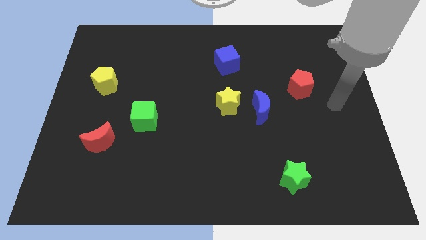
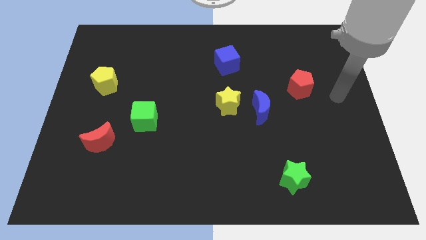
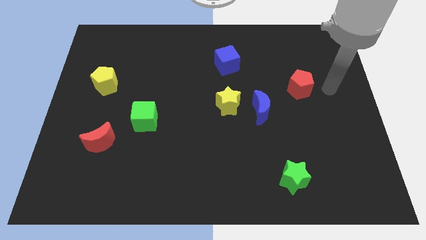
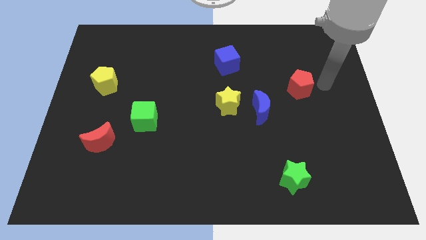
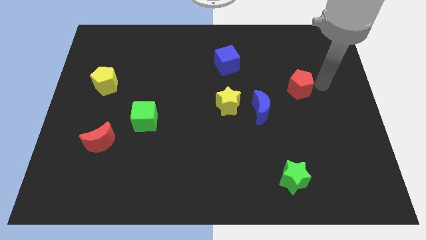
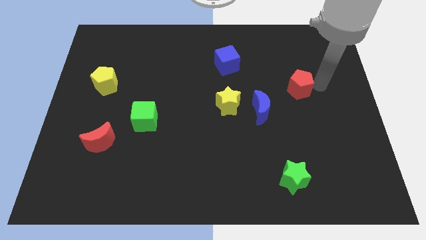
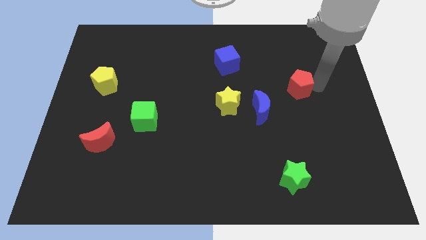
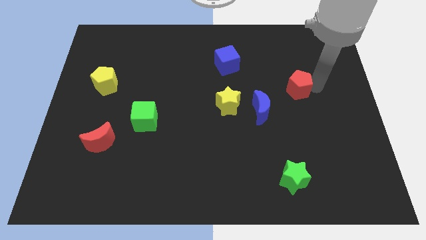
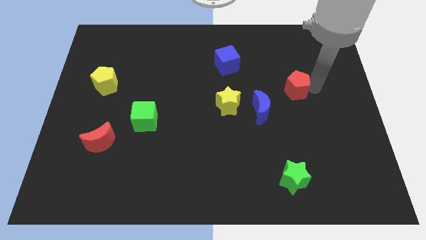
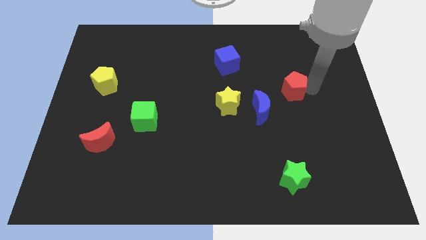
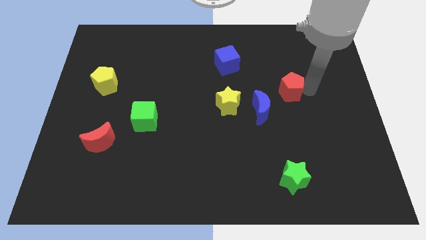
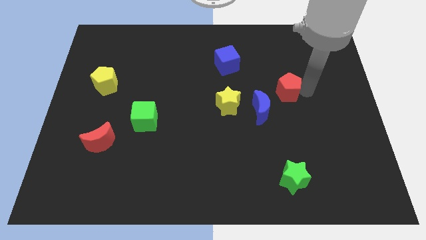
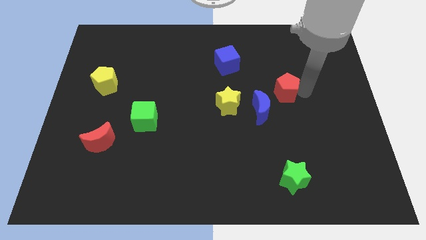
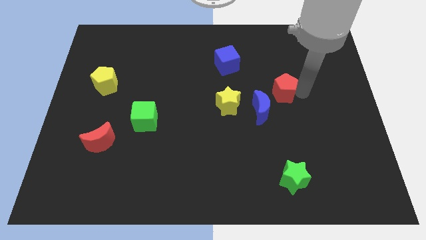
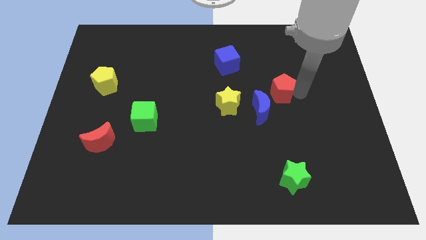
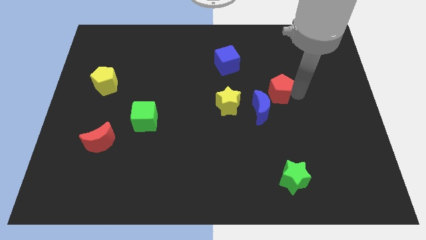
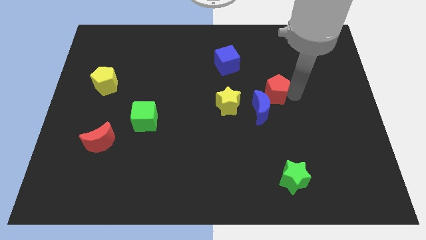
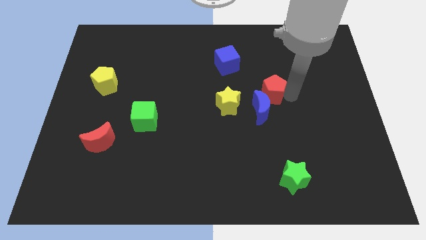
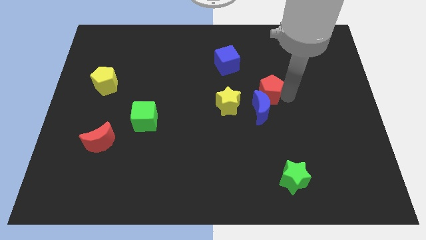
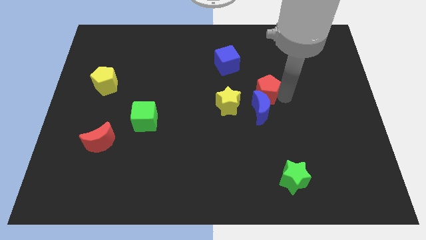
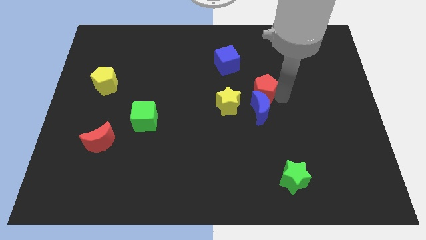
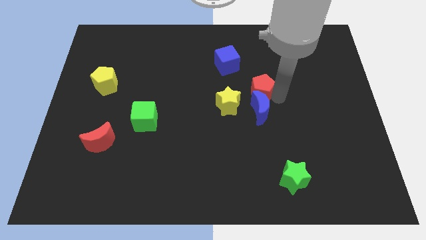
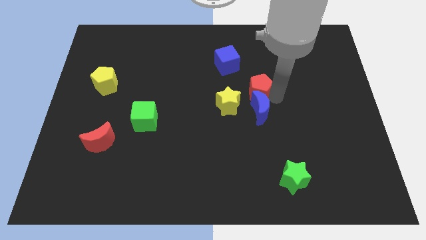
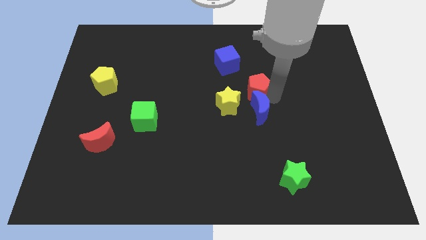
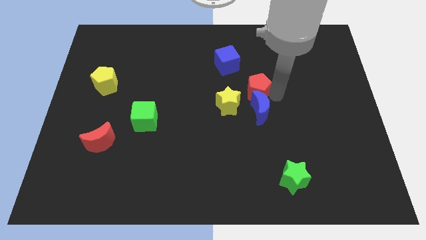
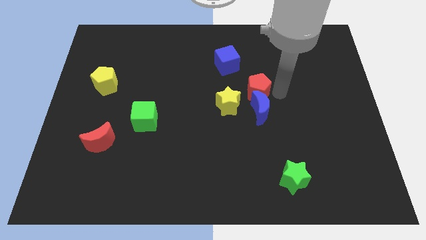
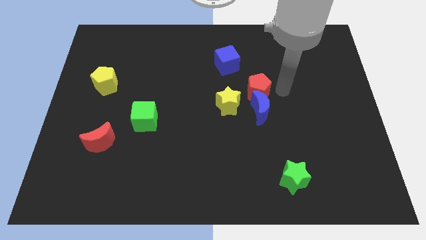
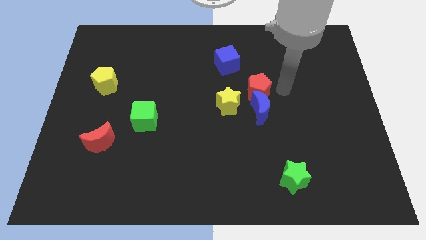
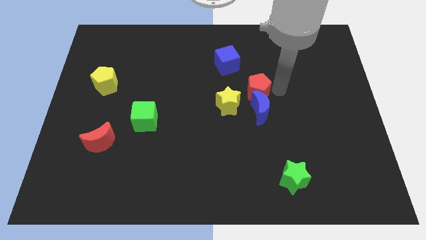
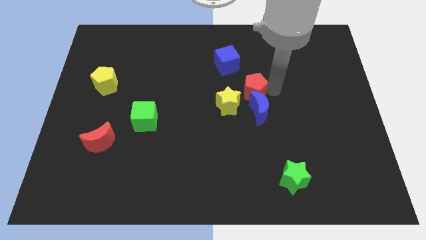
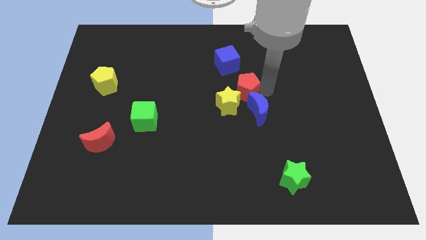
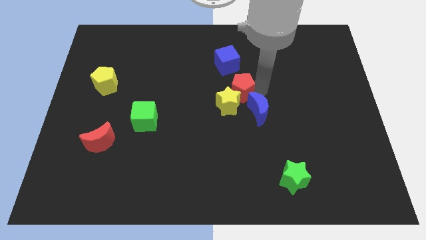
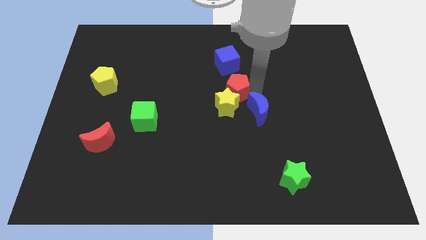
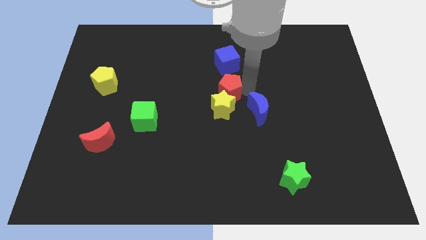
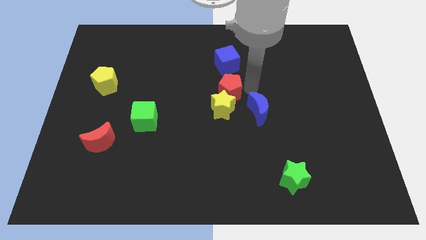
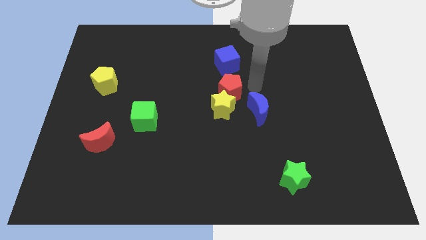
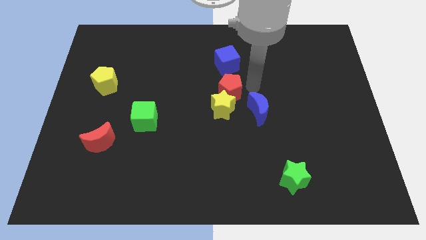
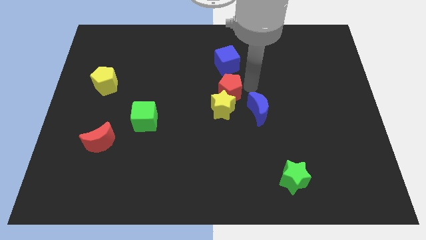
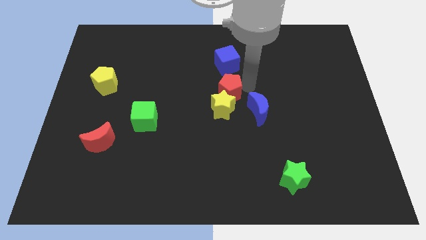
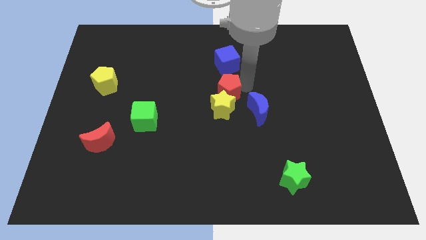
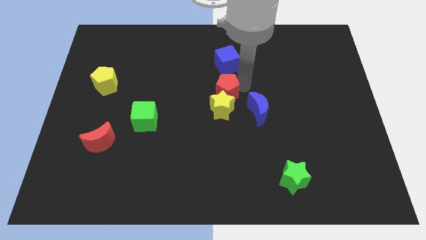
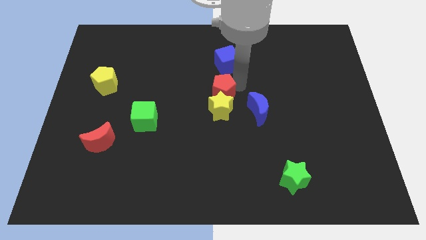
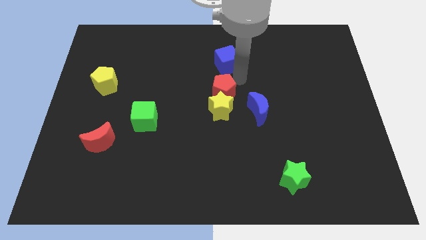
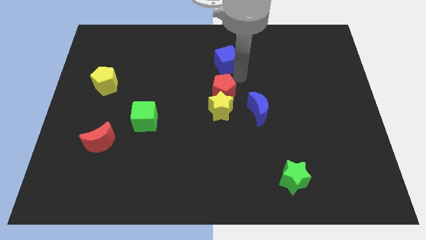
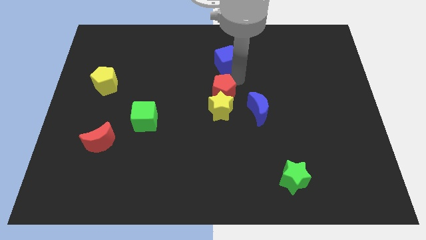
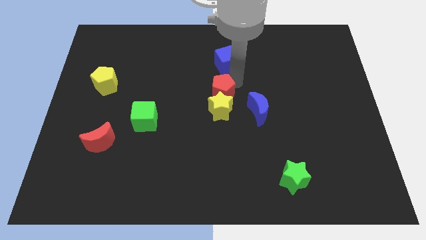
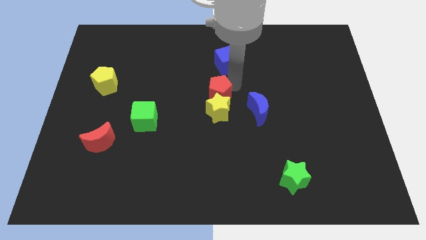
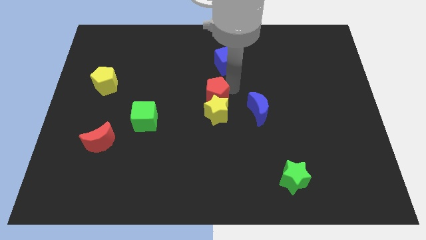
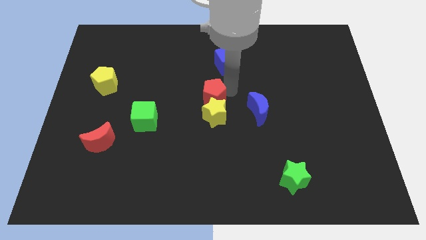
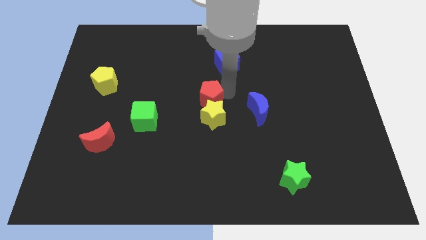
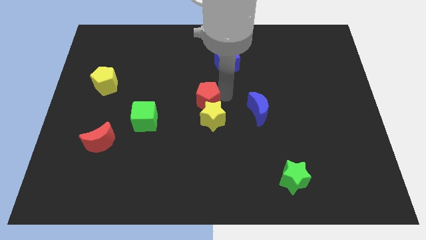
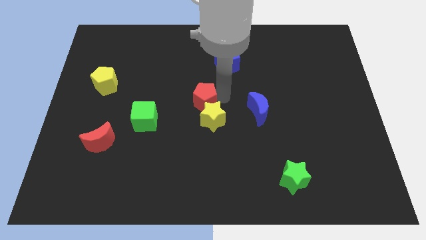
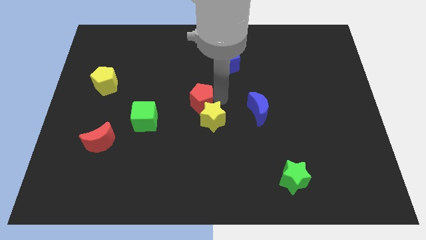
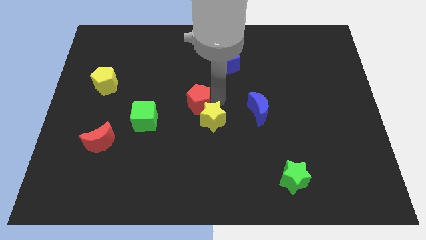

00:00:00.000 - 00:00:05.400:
slide the red pentagon right of the green cube

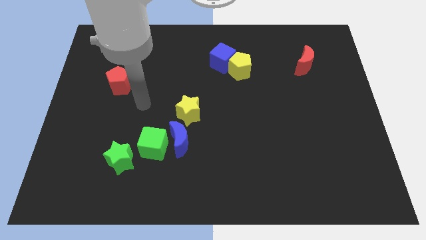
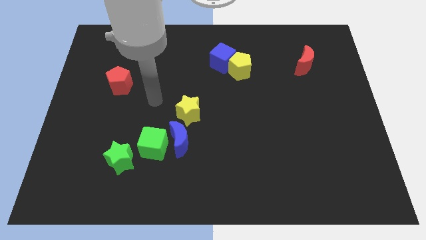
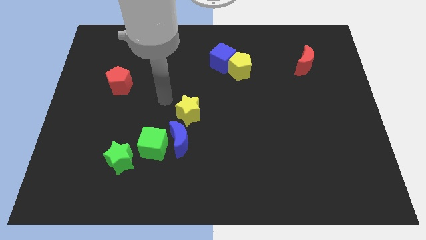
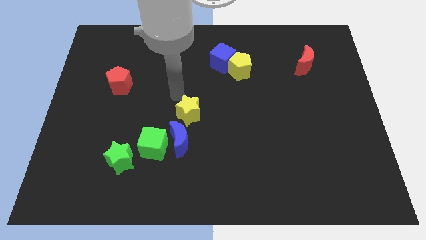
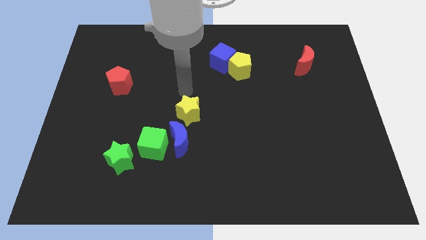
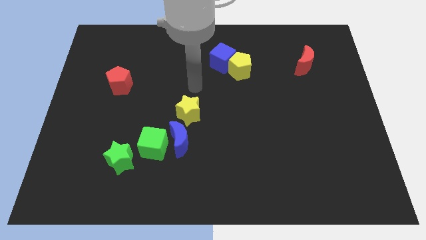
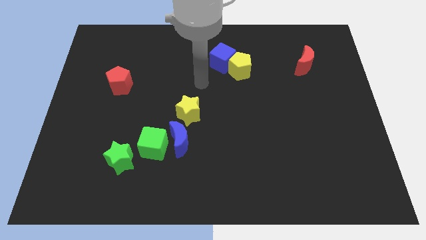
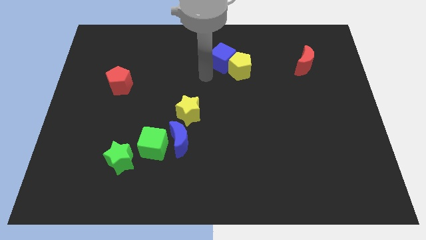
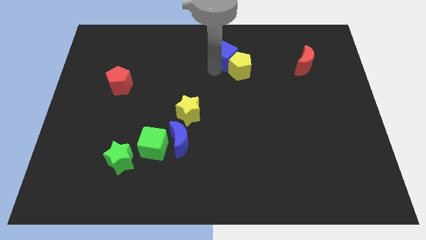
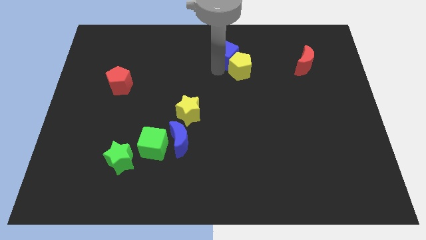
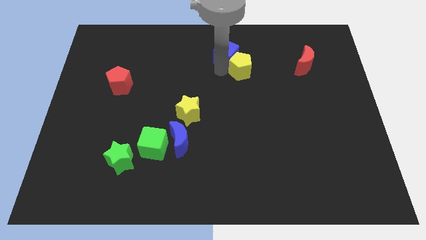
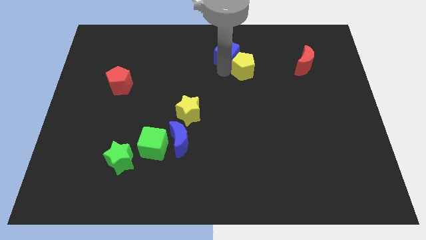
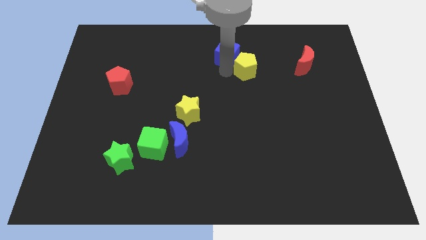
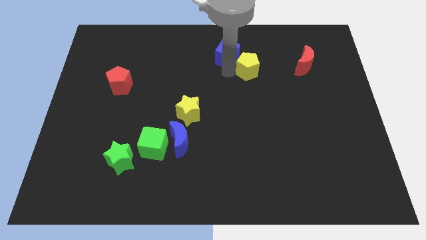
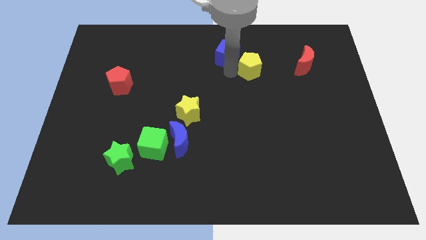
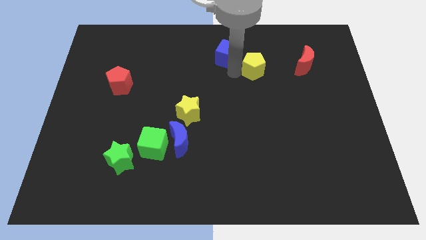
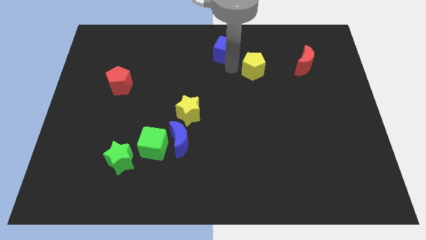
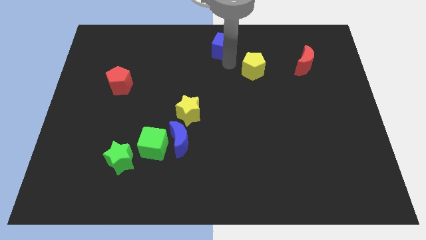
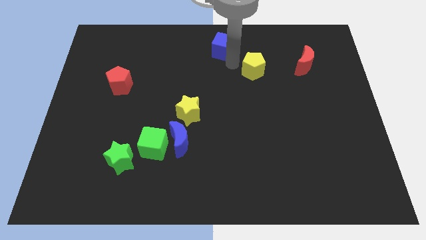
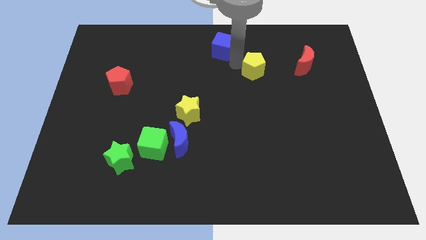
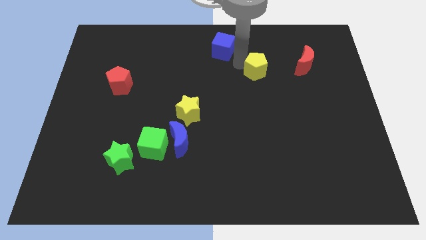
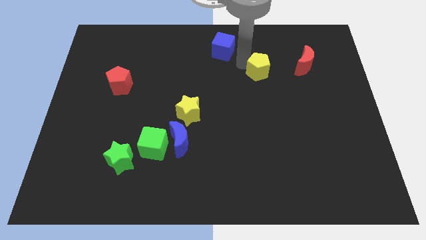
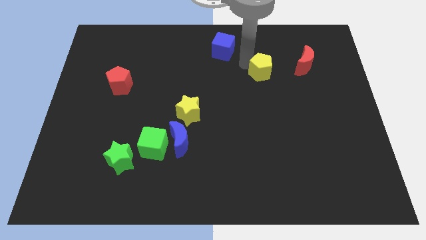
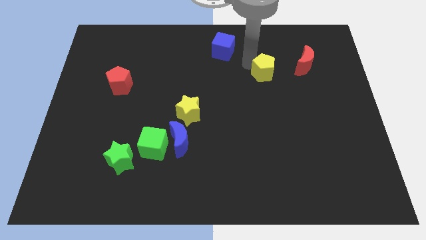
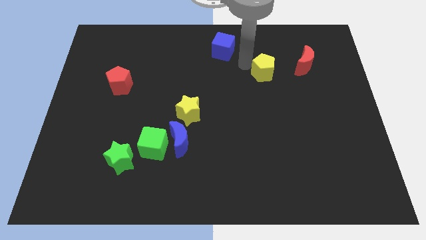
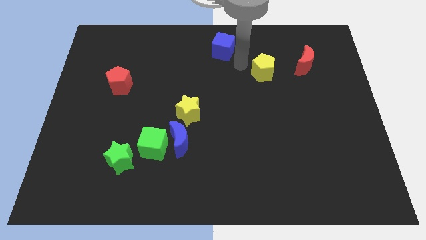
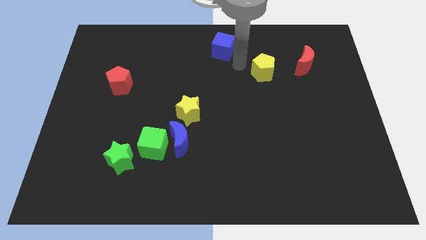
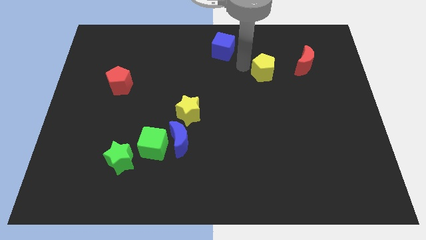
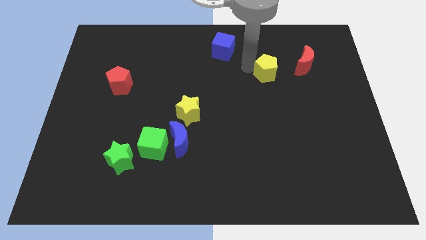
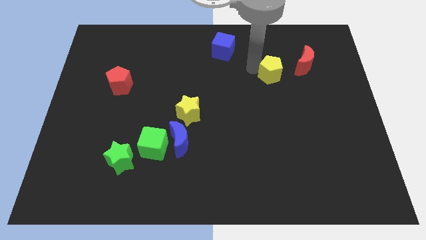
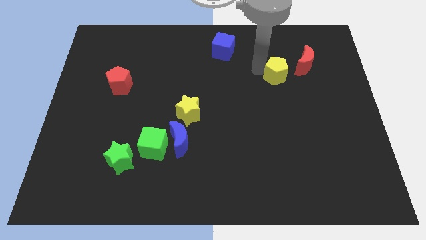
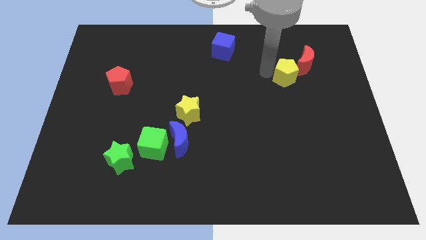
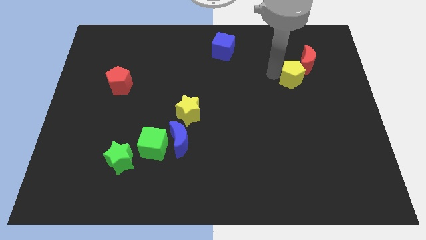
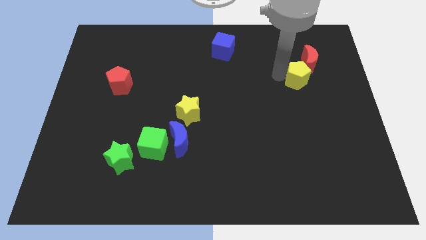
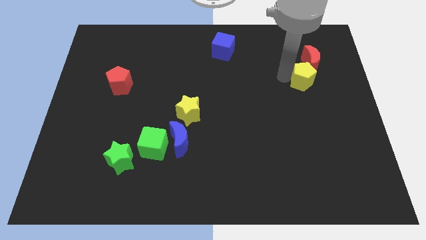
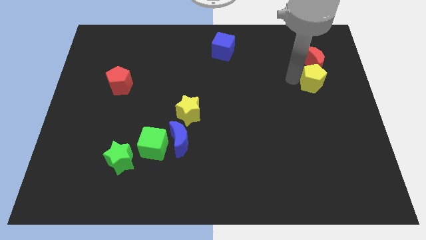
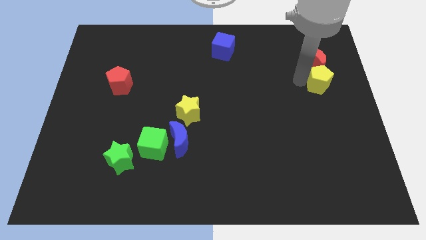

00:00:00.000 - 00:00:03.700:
push the yellow pentagon to the bottom right of the red moon
